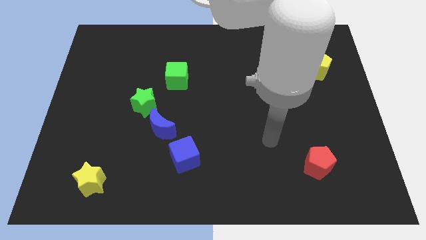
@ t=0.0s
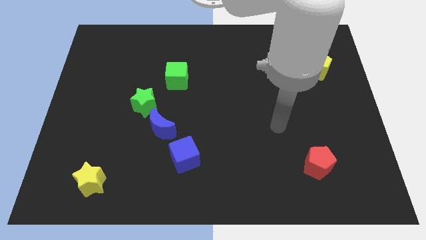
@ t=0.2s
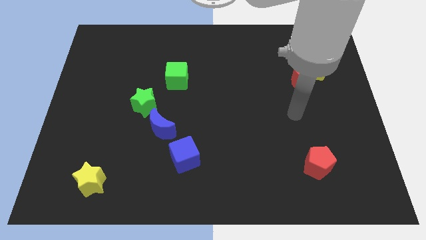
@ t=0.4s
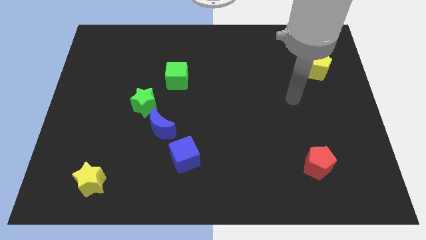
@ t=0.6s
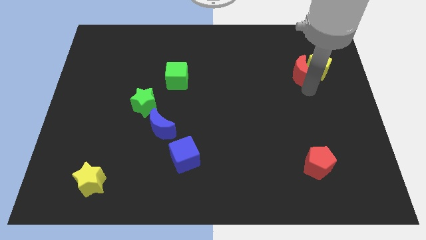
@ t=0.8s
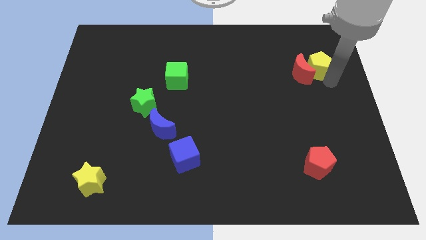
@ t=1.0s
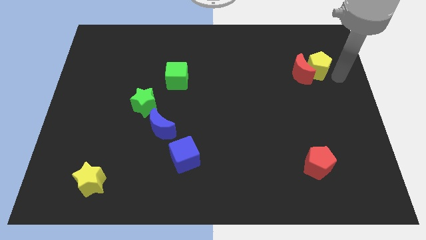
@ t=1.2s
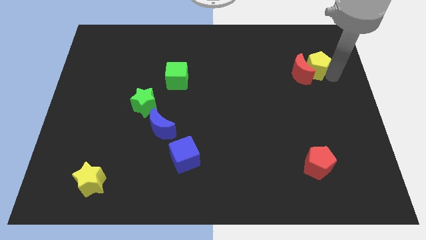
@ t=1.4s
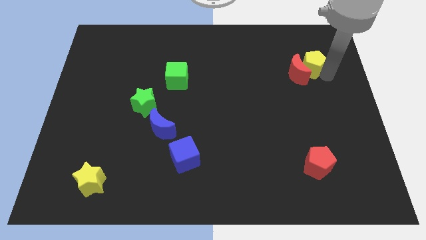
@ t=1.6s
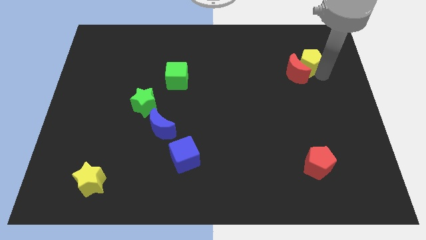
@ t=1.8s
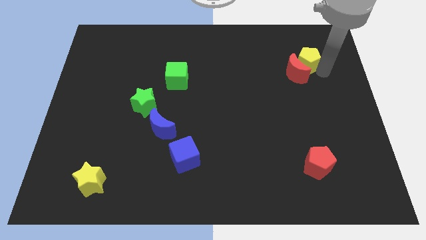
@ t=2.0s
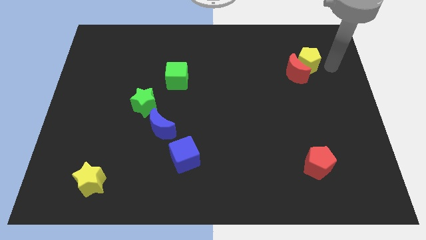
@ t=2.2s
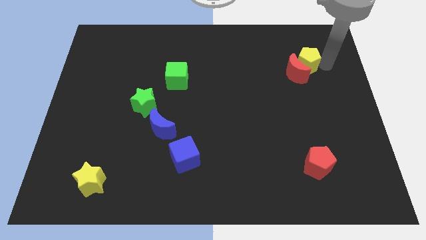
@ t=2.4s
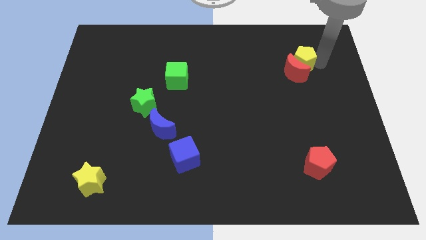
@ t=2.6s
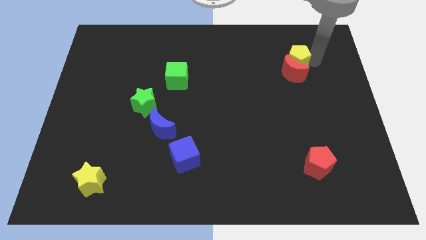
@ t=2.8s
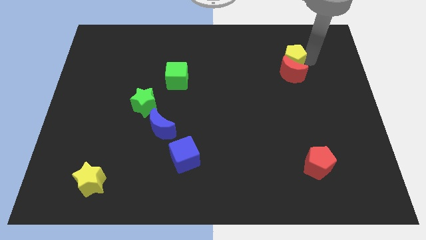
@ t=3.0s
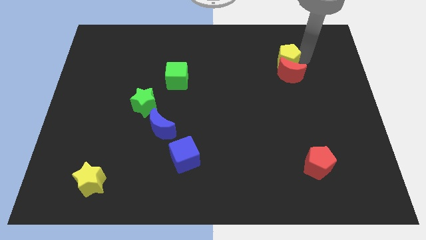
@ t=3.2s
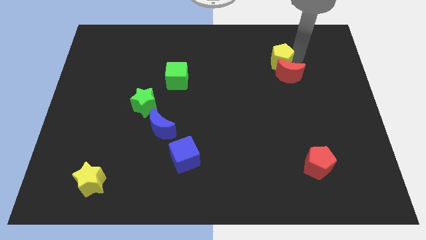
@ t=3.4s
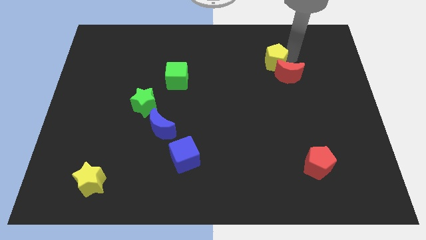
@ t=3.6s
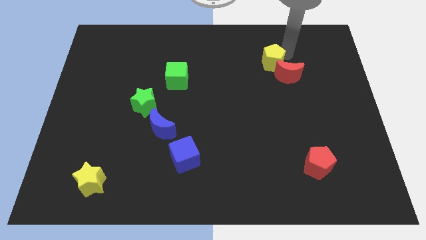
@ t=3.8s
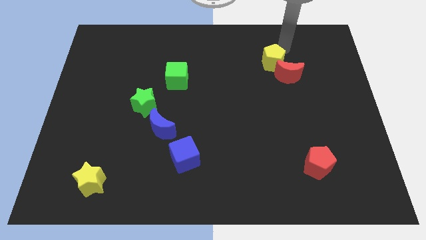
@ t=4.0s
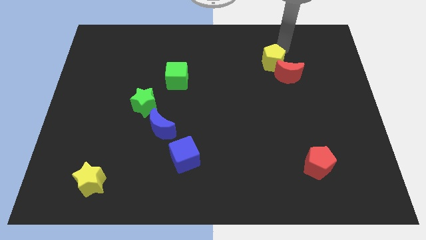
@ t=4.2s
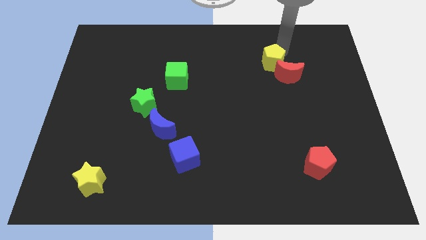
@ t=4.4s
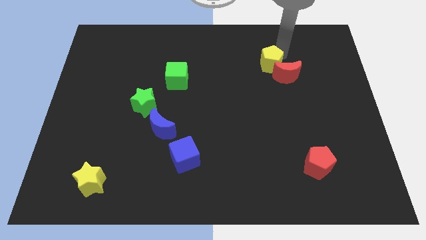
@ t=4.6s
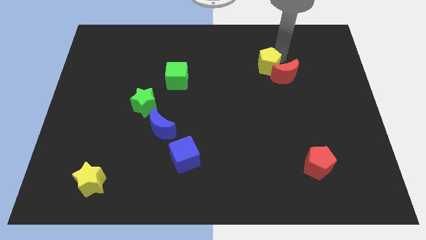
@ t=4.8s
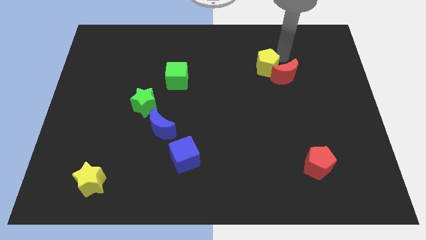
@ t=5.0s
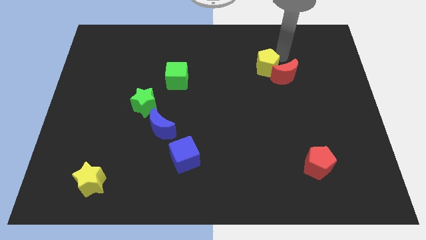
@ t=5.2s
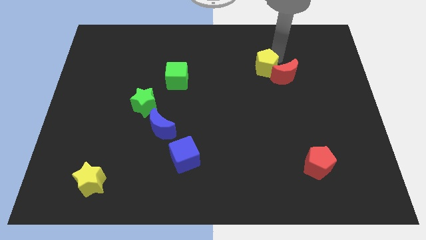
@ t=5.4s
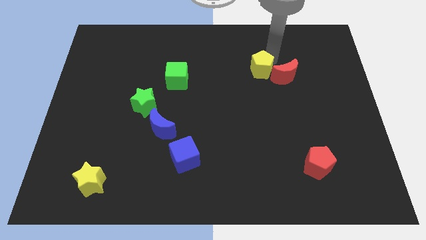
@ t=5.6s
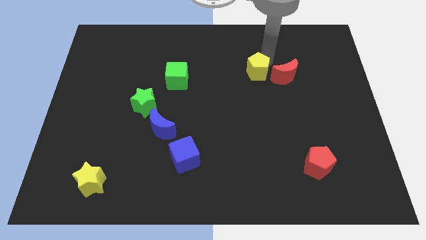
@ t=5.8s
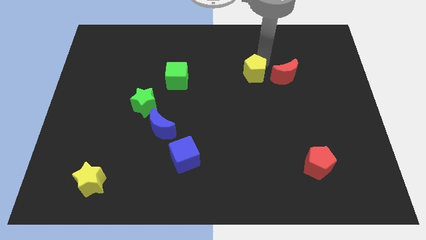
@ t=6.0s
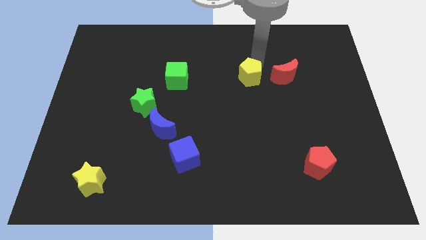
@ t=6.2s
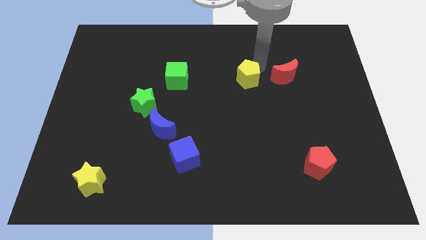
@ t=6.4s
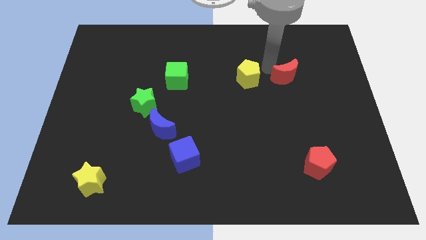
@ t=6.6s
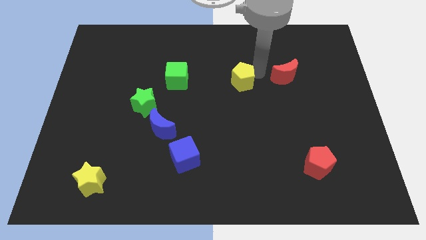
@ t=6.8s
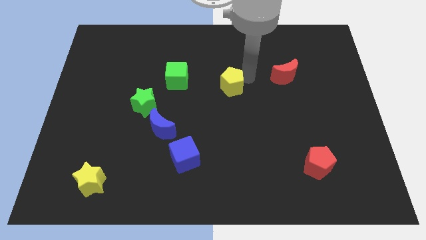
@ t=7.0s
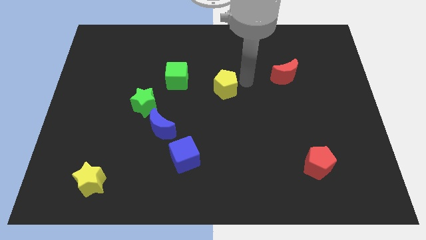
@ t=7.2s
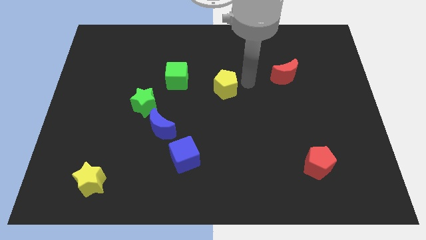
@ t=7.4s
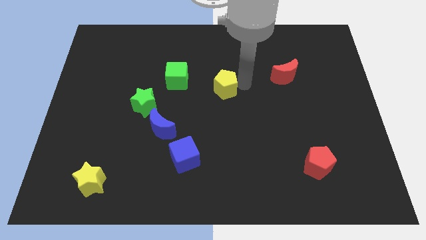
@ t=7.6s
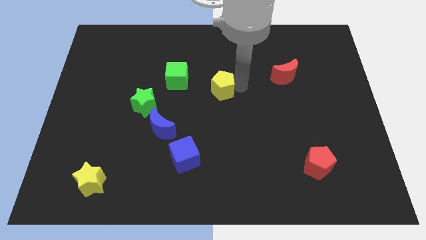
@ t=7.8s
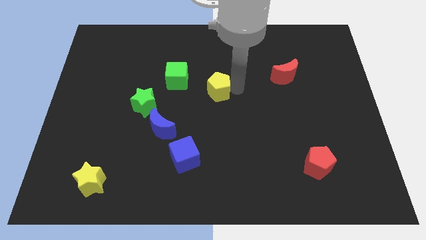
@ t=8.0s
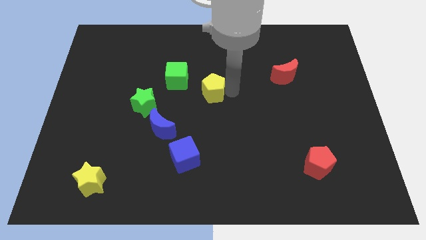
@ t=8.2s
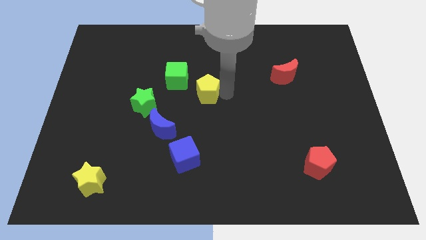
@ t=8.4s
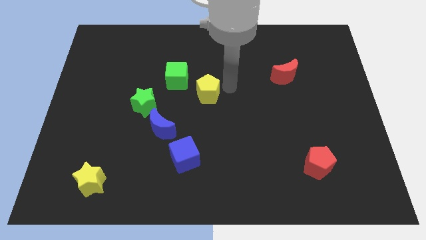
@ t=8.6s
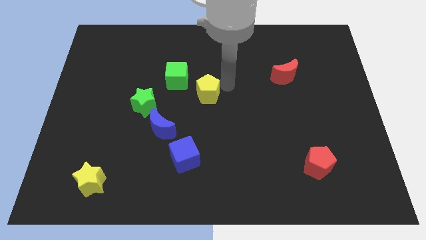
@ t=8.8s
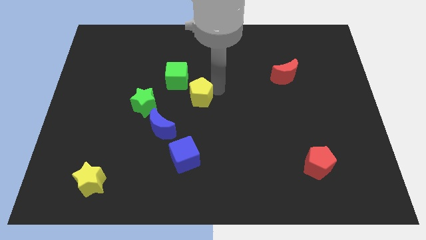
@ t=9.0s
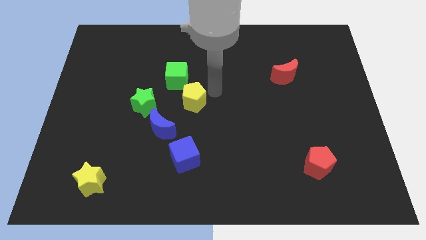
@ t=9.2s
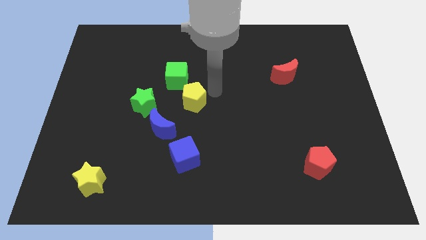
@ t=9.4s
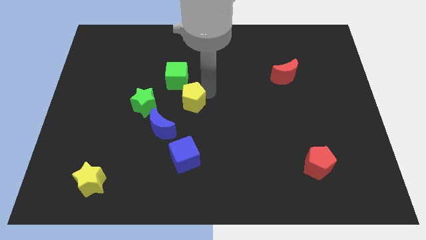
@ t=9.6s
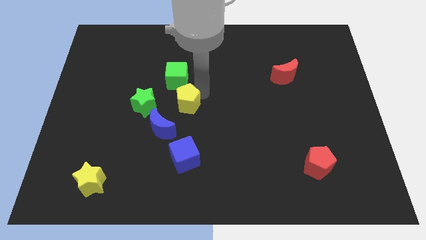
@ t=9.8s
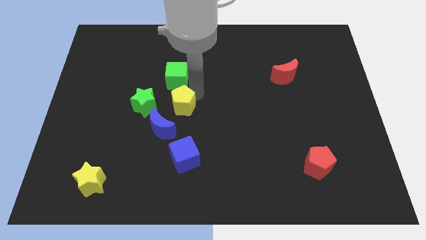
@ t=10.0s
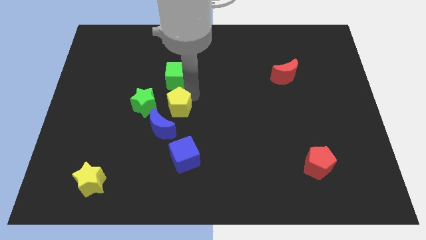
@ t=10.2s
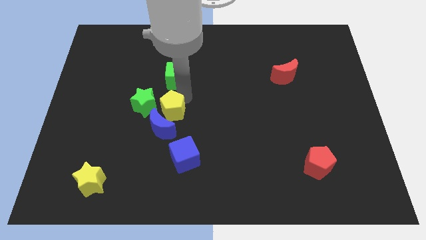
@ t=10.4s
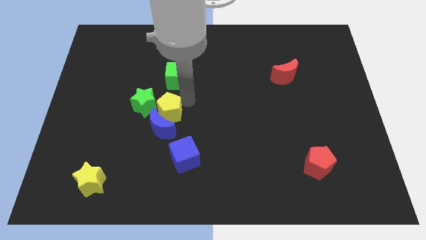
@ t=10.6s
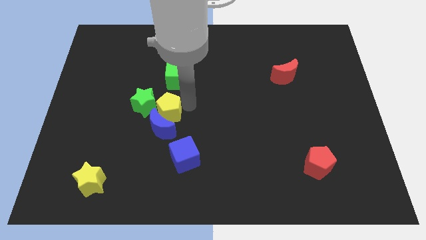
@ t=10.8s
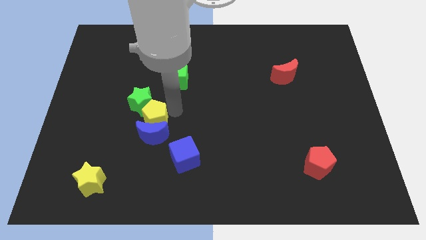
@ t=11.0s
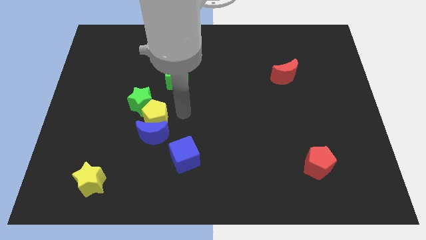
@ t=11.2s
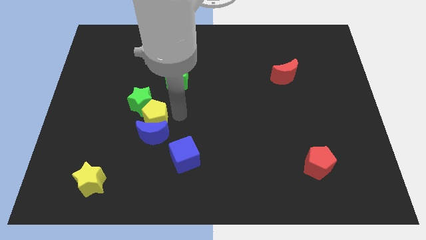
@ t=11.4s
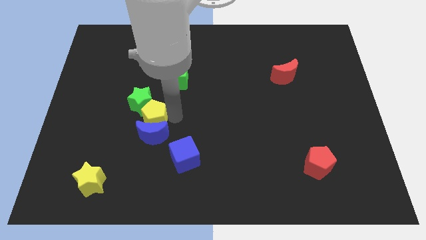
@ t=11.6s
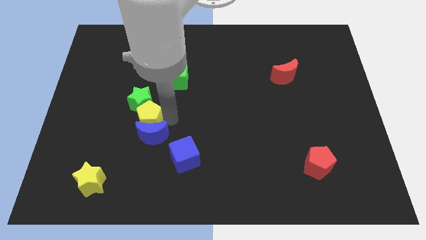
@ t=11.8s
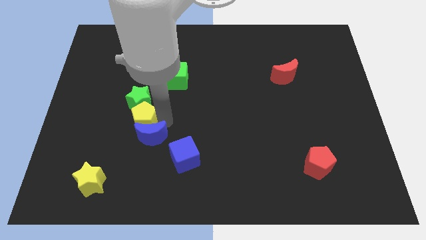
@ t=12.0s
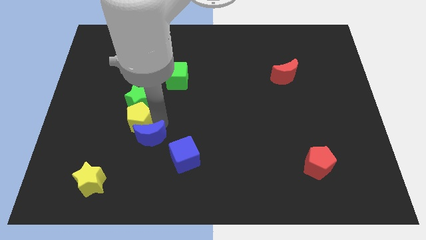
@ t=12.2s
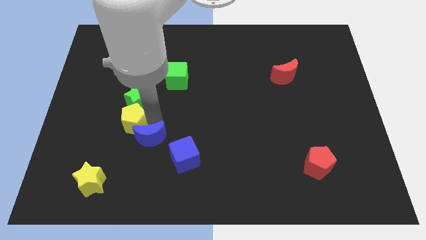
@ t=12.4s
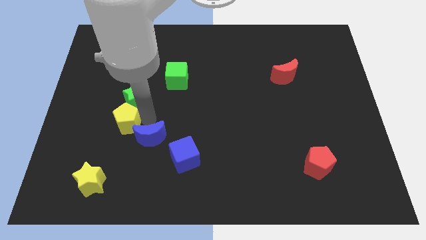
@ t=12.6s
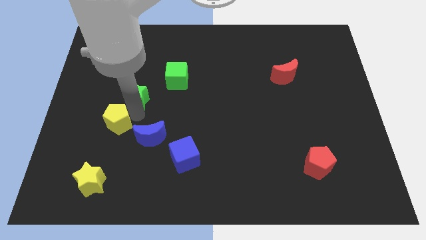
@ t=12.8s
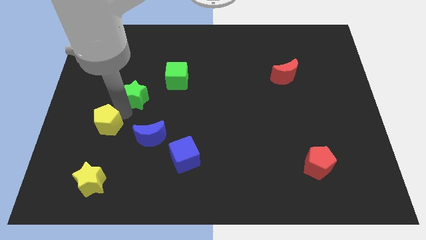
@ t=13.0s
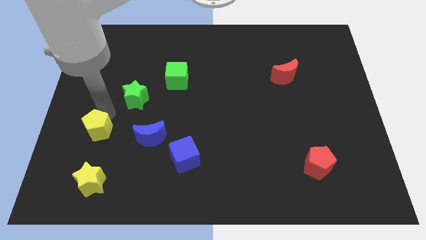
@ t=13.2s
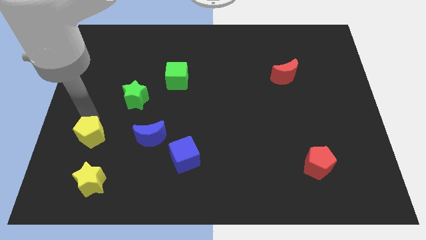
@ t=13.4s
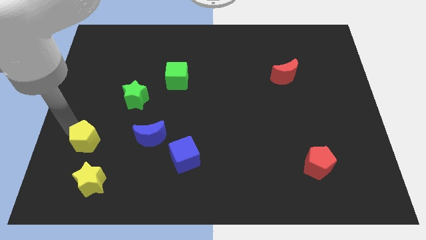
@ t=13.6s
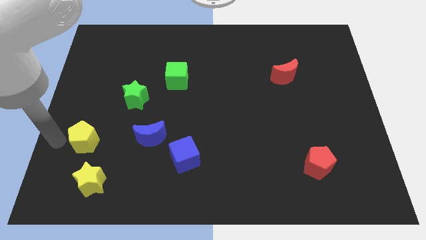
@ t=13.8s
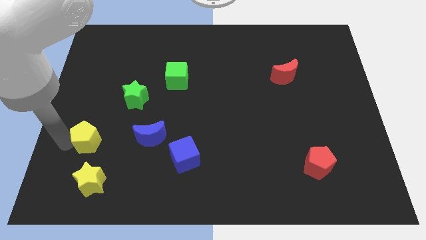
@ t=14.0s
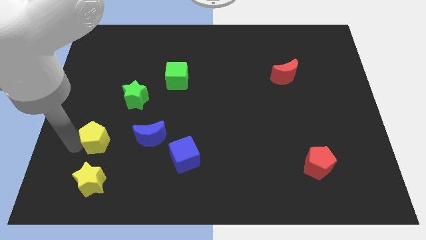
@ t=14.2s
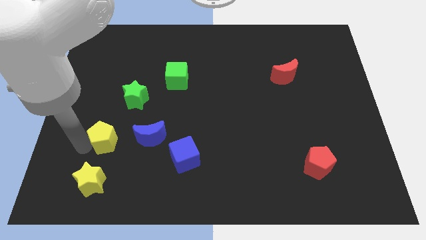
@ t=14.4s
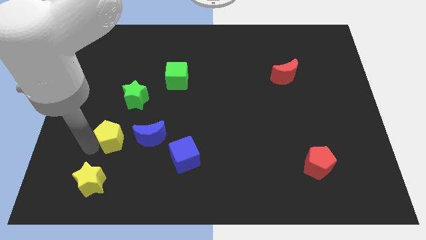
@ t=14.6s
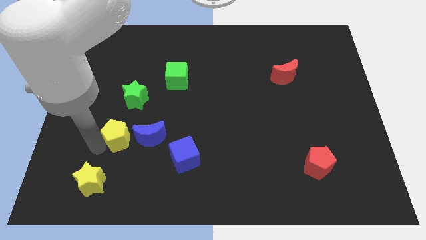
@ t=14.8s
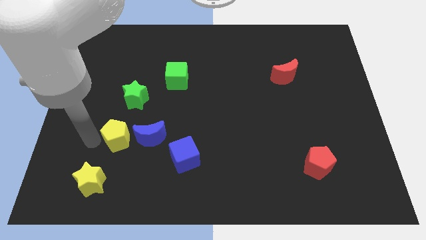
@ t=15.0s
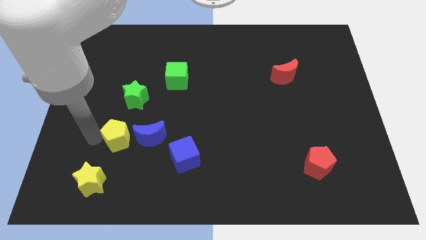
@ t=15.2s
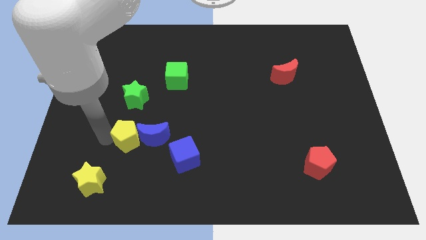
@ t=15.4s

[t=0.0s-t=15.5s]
put the yellow pentagon left of the blue cube
